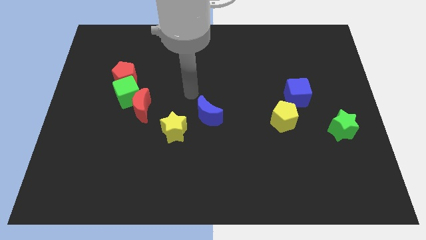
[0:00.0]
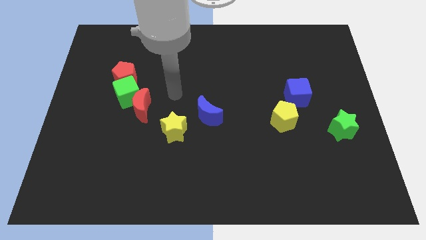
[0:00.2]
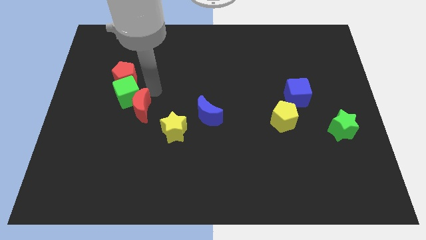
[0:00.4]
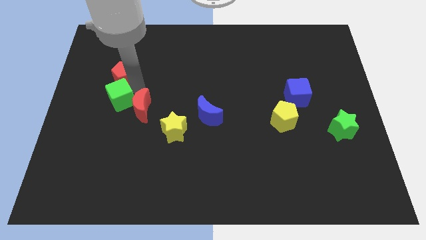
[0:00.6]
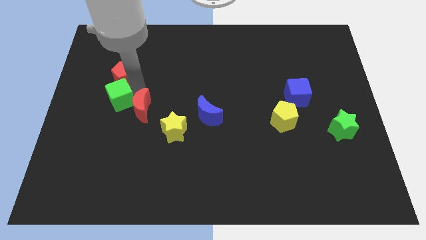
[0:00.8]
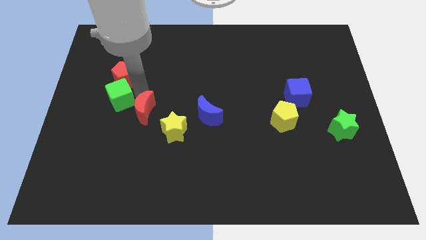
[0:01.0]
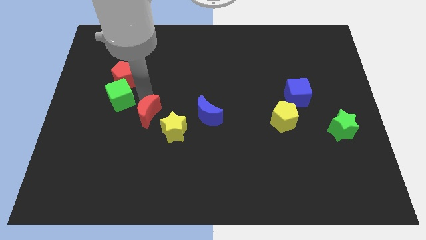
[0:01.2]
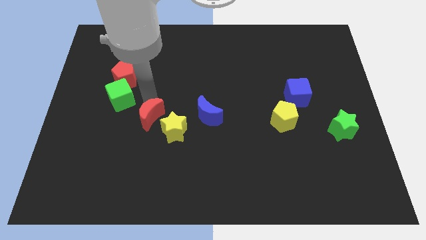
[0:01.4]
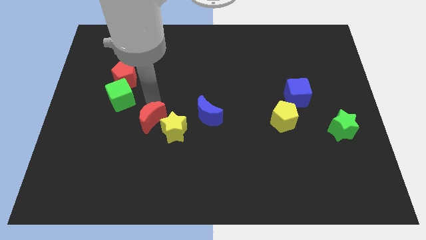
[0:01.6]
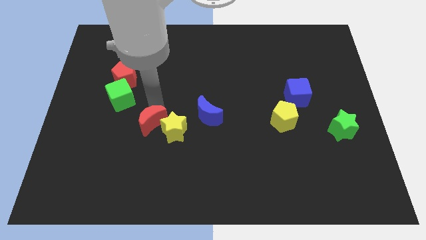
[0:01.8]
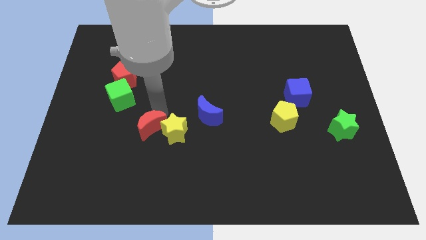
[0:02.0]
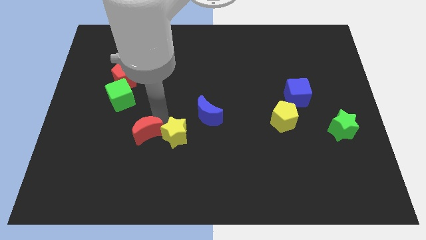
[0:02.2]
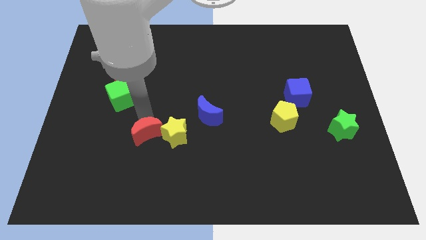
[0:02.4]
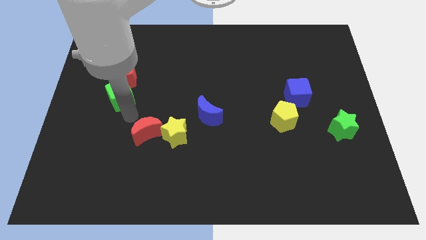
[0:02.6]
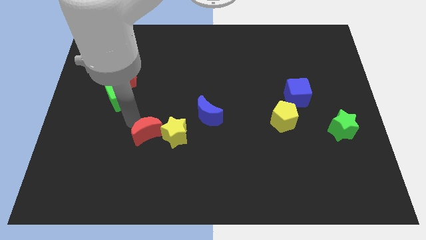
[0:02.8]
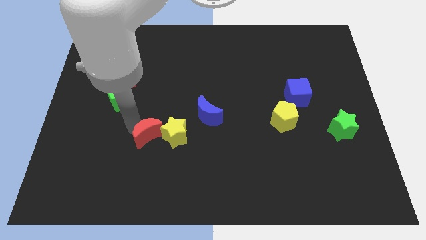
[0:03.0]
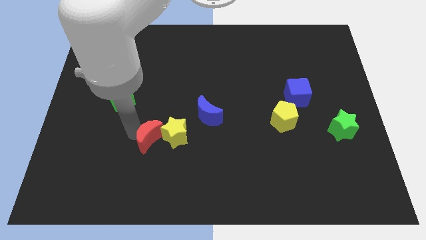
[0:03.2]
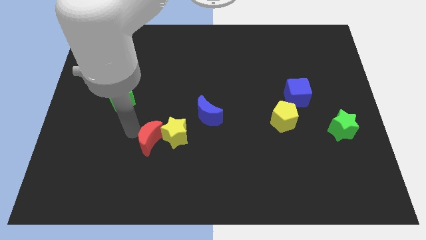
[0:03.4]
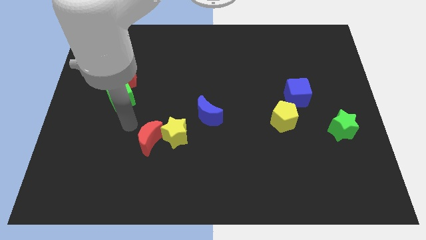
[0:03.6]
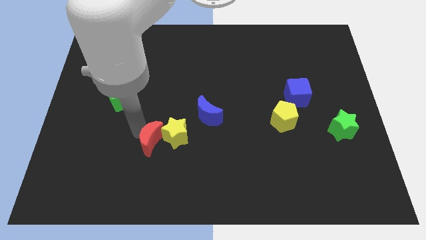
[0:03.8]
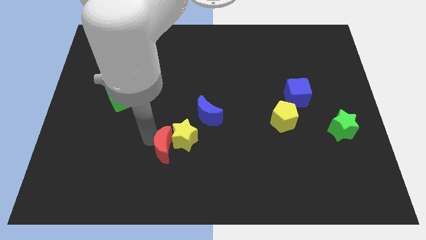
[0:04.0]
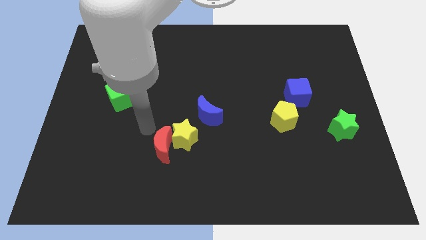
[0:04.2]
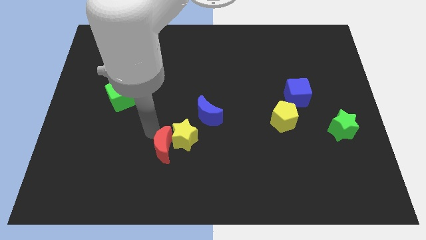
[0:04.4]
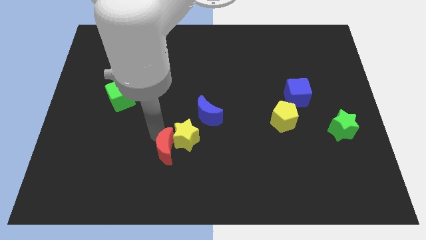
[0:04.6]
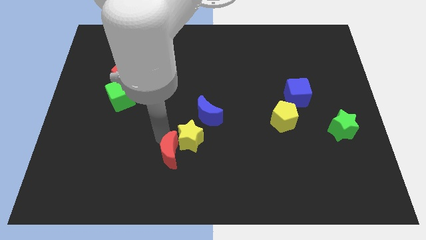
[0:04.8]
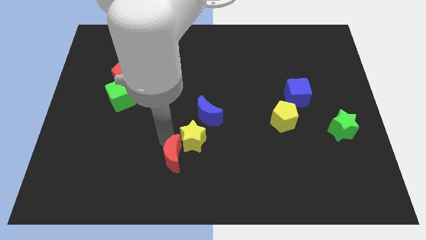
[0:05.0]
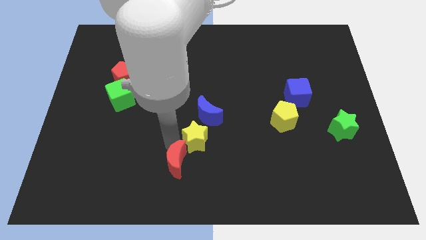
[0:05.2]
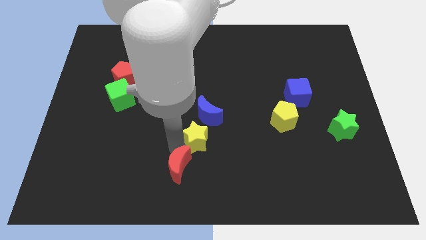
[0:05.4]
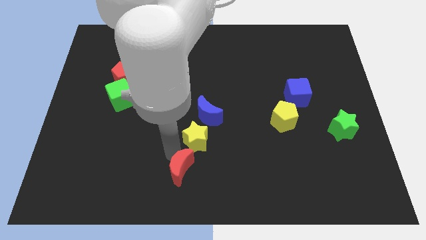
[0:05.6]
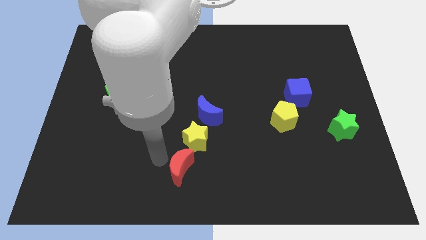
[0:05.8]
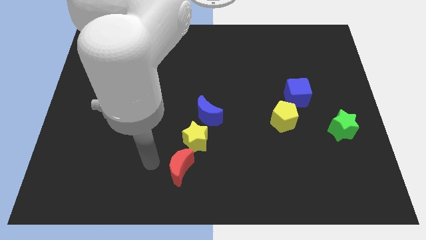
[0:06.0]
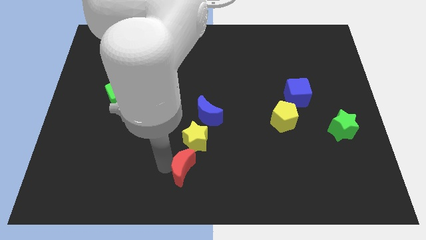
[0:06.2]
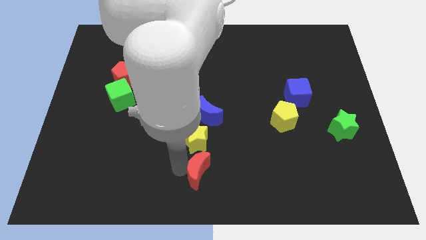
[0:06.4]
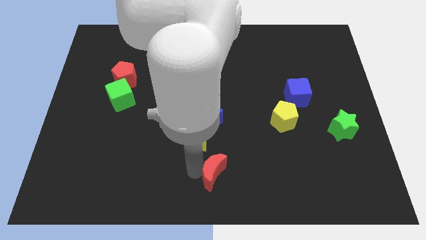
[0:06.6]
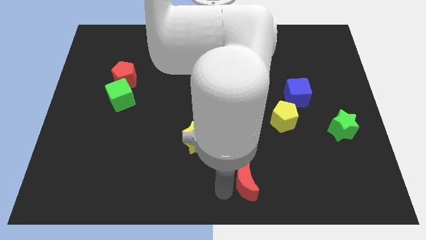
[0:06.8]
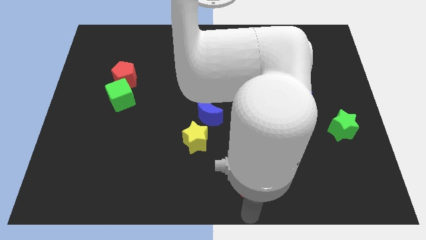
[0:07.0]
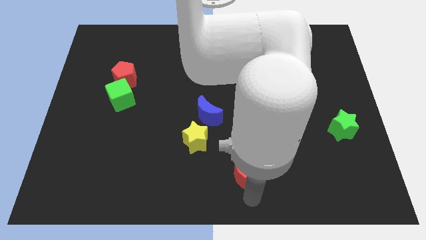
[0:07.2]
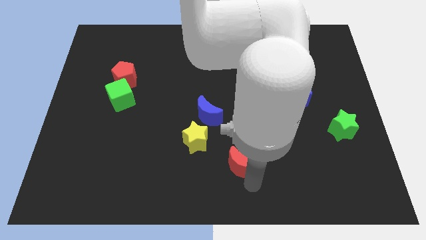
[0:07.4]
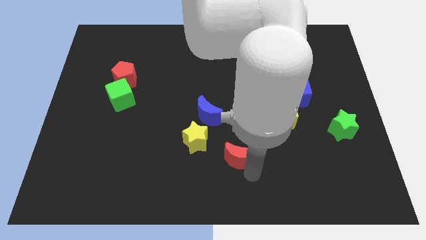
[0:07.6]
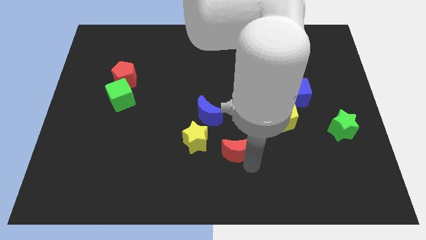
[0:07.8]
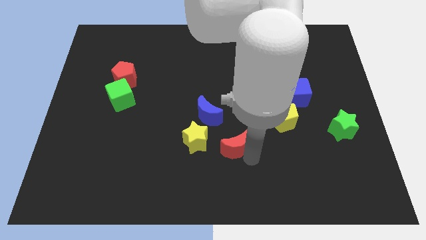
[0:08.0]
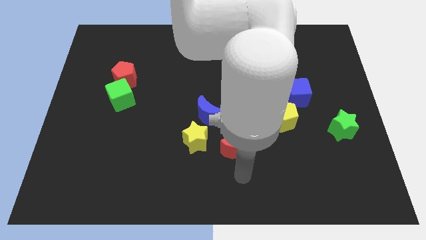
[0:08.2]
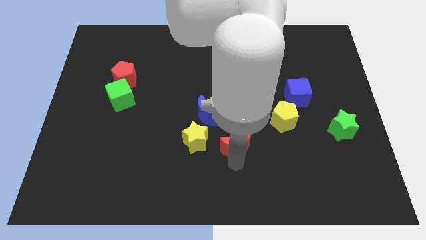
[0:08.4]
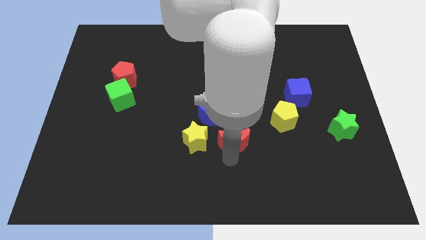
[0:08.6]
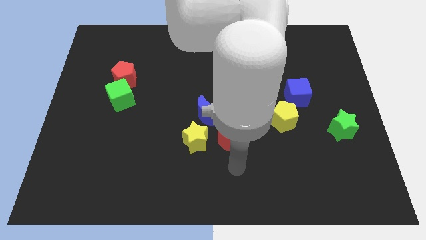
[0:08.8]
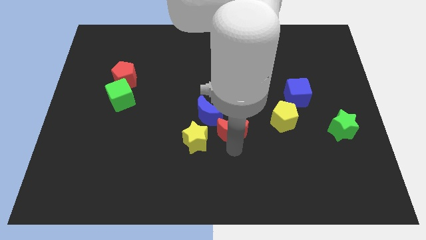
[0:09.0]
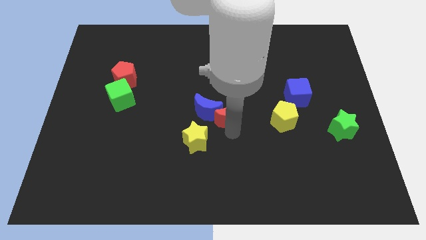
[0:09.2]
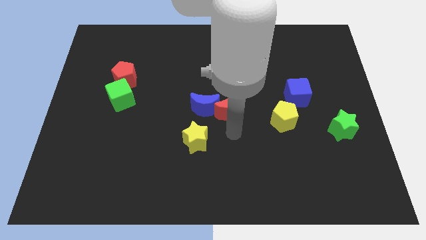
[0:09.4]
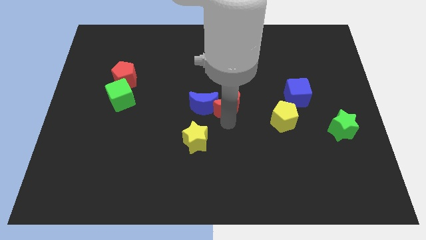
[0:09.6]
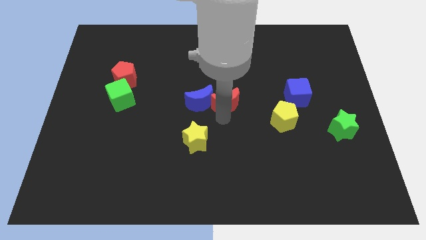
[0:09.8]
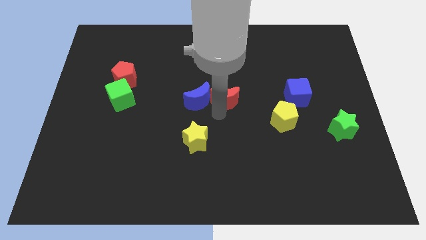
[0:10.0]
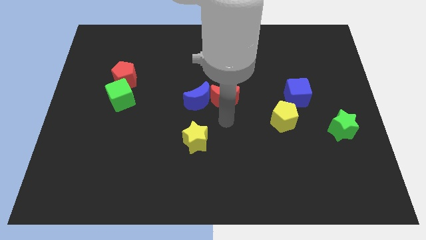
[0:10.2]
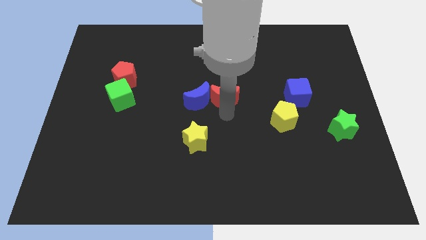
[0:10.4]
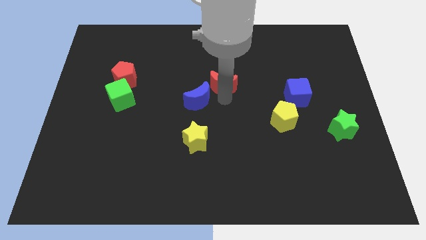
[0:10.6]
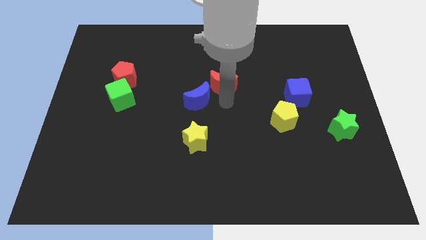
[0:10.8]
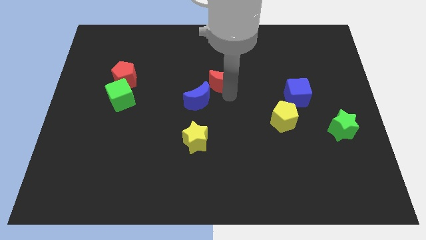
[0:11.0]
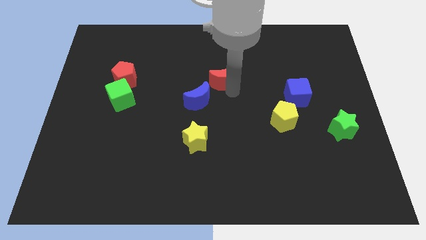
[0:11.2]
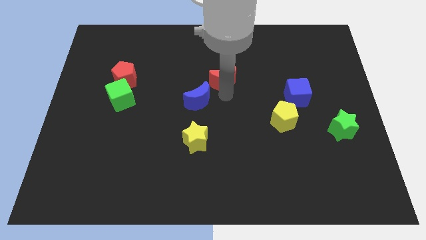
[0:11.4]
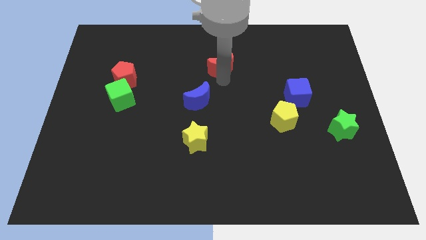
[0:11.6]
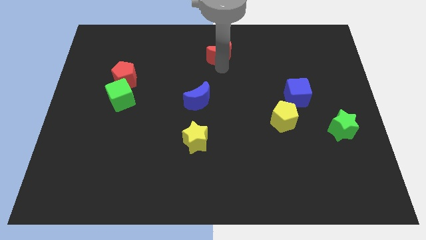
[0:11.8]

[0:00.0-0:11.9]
move the red moon to the towards your base

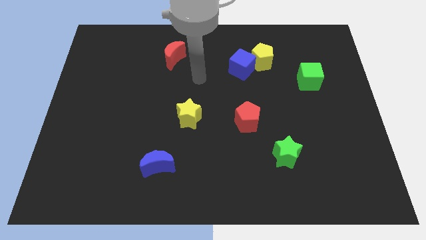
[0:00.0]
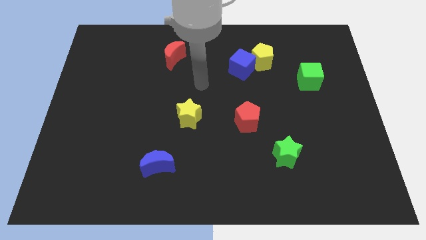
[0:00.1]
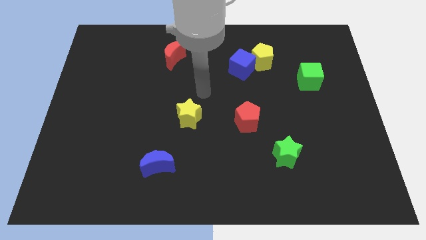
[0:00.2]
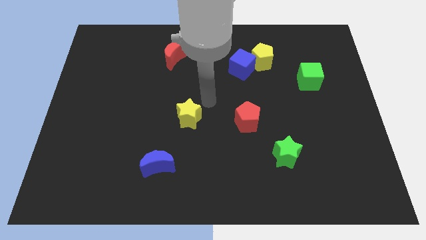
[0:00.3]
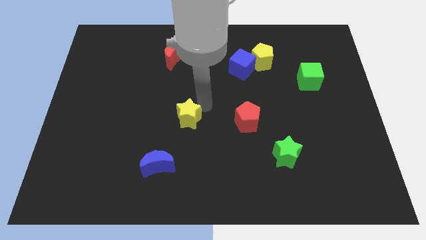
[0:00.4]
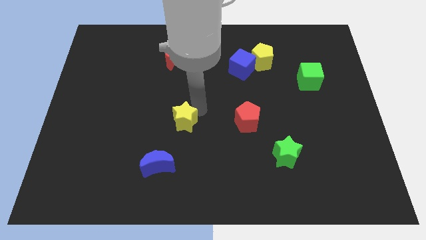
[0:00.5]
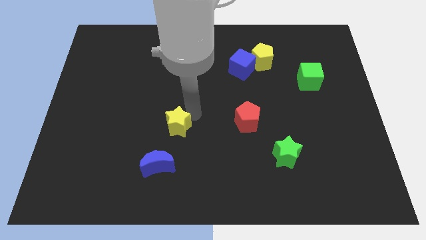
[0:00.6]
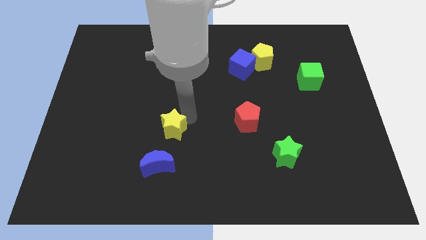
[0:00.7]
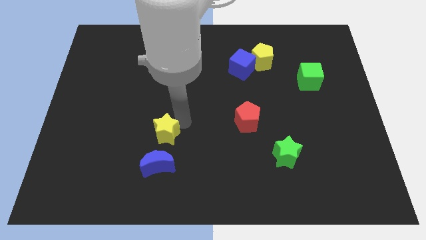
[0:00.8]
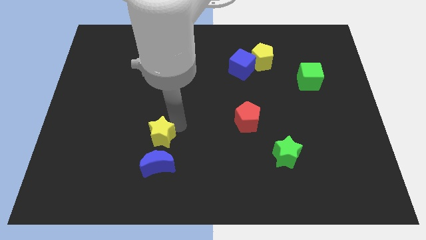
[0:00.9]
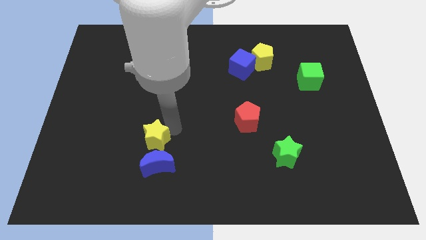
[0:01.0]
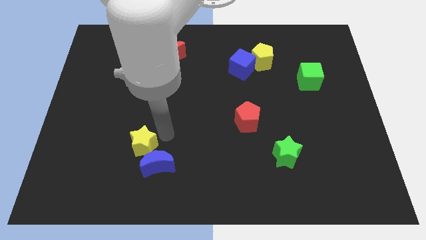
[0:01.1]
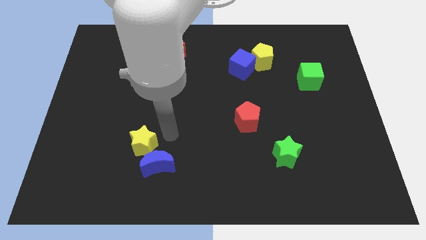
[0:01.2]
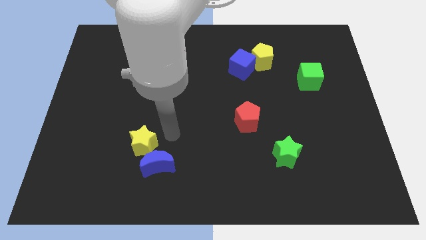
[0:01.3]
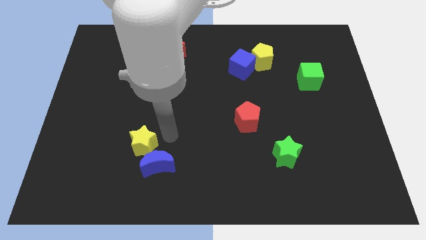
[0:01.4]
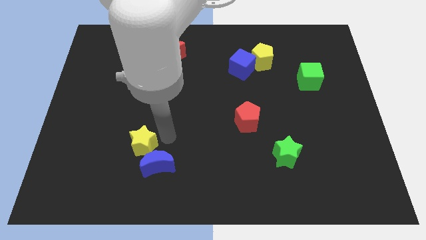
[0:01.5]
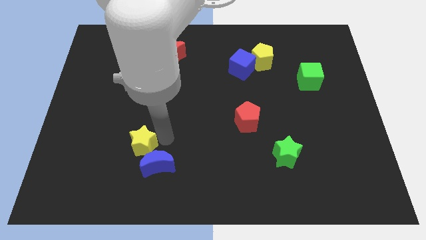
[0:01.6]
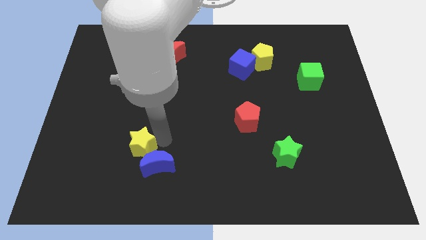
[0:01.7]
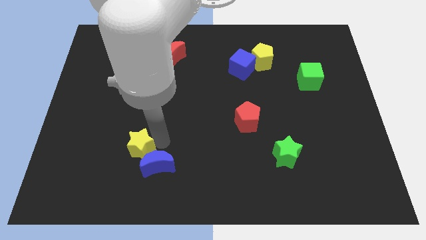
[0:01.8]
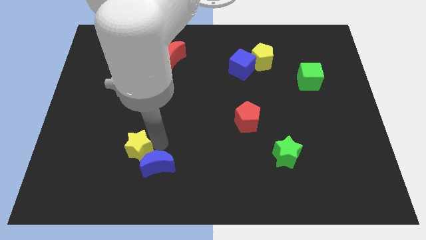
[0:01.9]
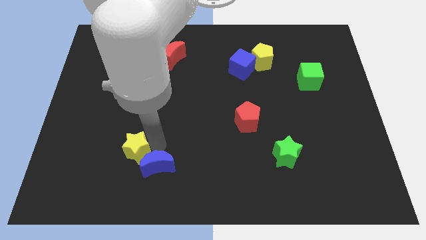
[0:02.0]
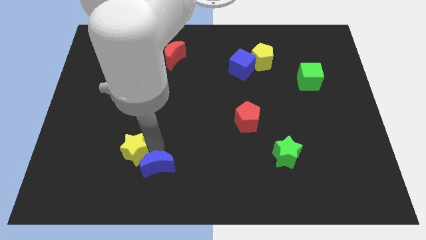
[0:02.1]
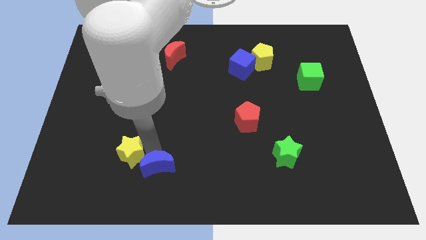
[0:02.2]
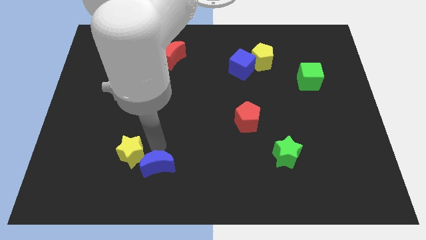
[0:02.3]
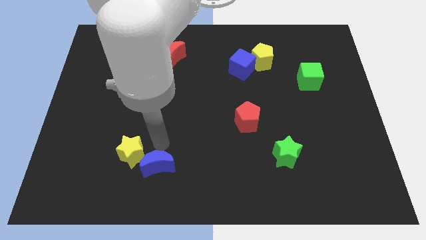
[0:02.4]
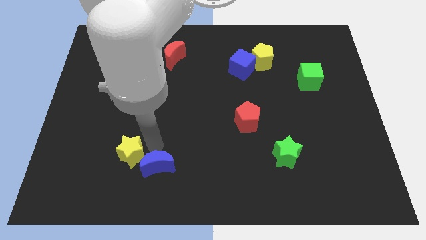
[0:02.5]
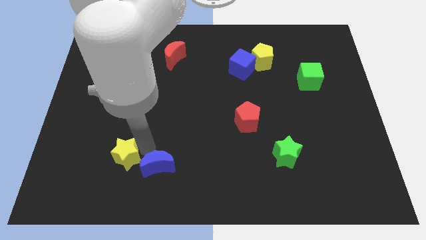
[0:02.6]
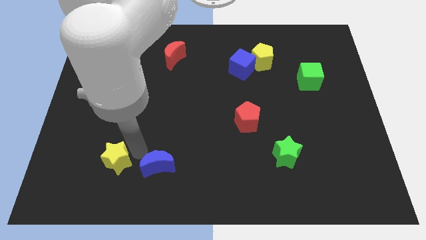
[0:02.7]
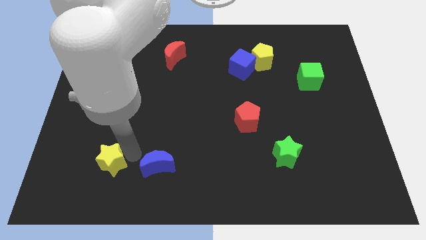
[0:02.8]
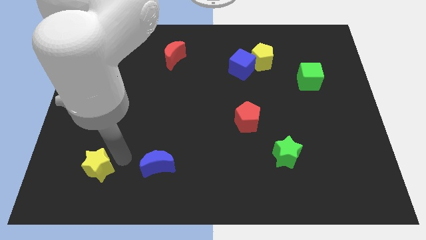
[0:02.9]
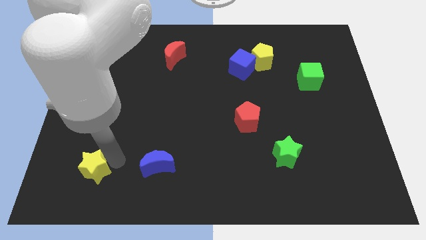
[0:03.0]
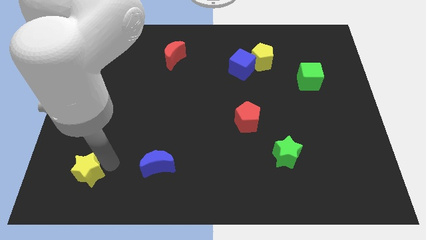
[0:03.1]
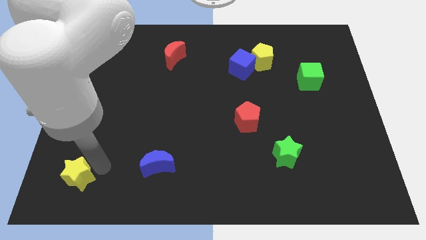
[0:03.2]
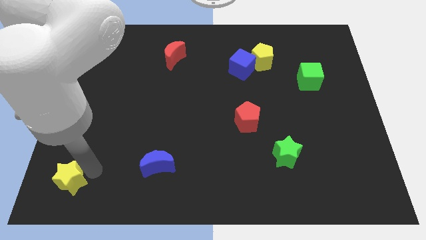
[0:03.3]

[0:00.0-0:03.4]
move the yellow star to the bottom left of the board
